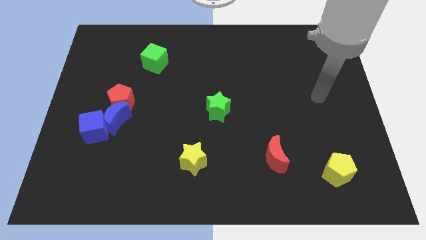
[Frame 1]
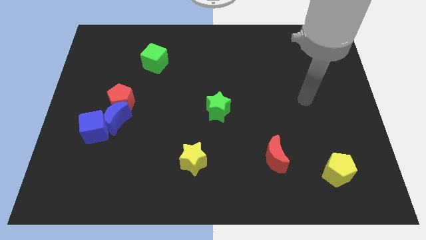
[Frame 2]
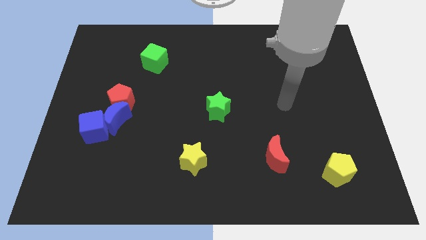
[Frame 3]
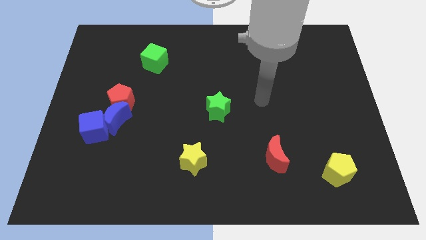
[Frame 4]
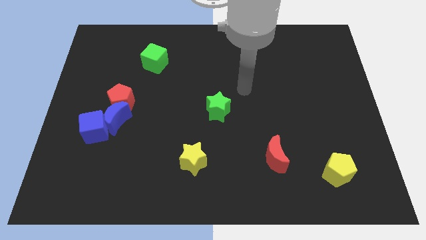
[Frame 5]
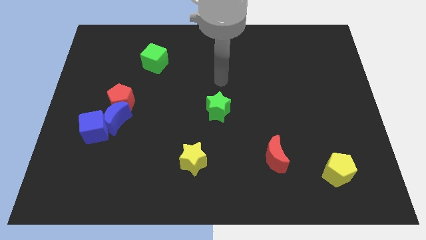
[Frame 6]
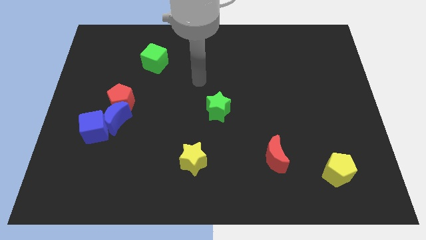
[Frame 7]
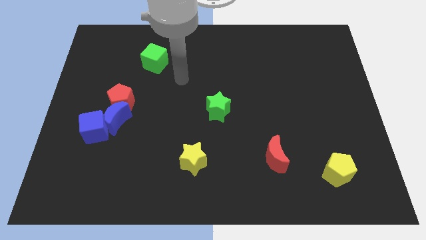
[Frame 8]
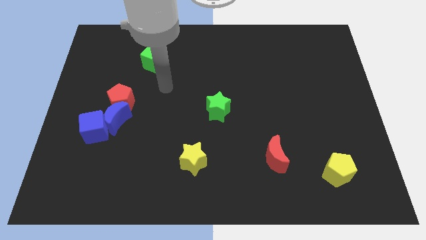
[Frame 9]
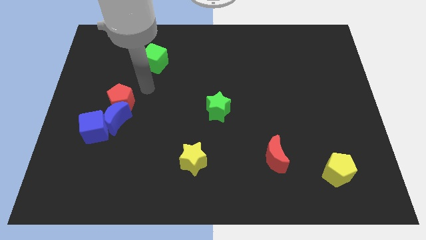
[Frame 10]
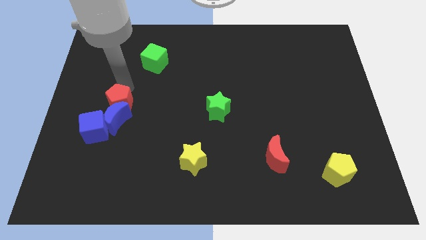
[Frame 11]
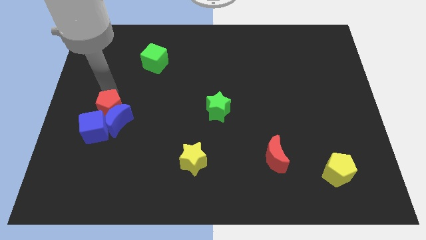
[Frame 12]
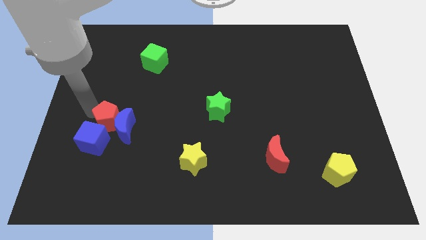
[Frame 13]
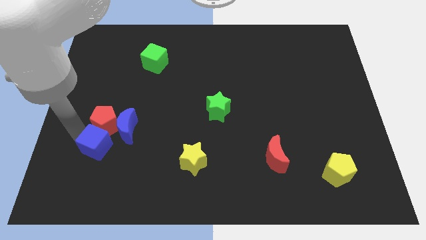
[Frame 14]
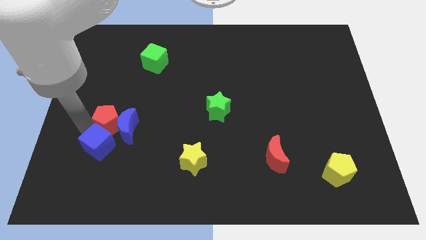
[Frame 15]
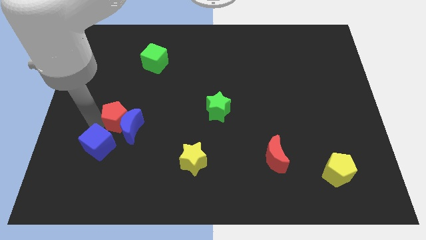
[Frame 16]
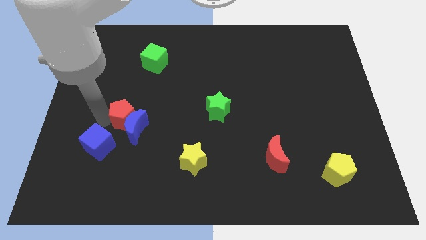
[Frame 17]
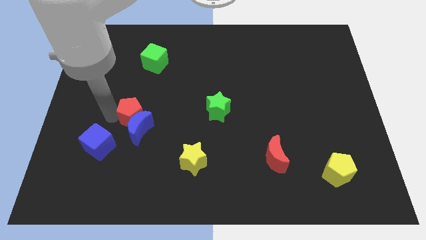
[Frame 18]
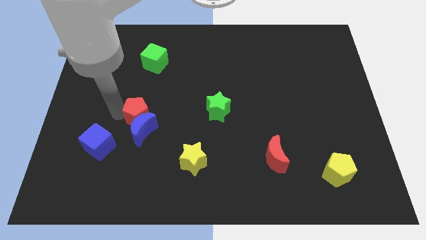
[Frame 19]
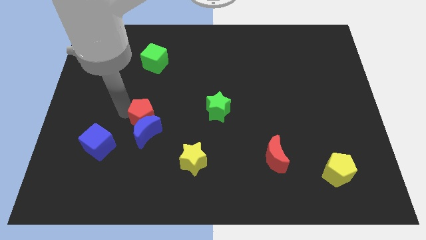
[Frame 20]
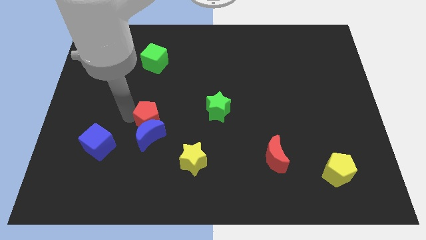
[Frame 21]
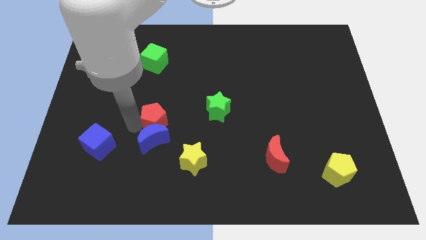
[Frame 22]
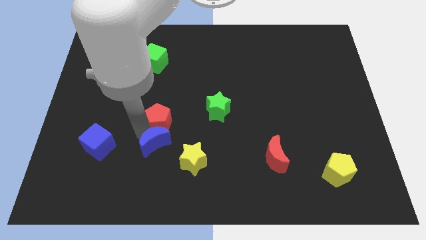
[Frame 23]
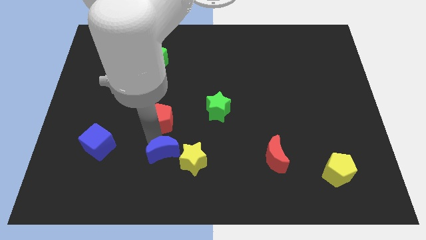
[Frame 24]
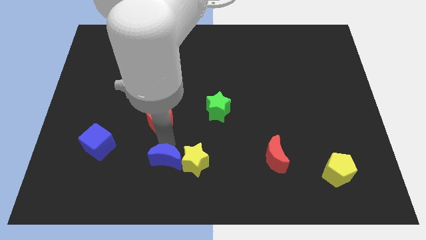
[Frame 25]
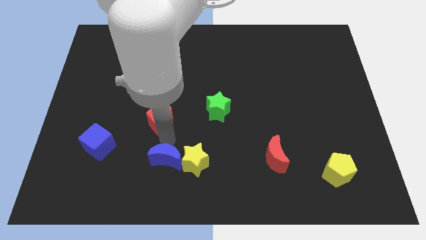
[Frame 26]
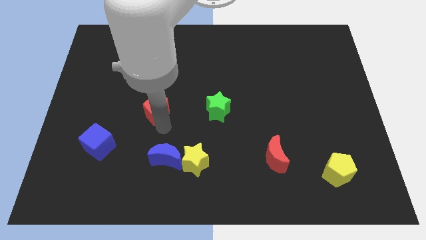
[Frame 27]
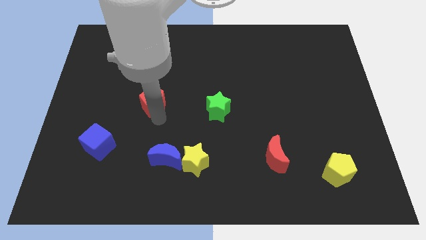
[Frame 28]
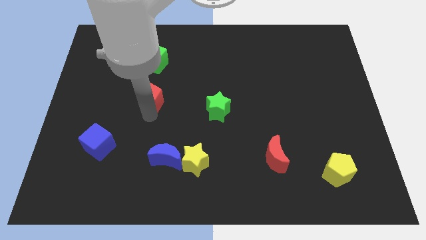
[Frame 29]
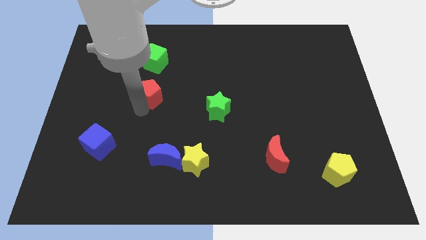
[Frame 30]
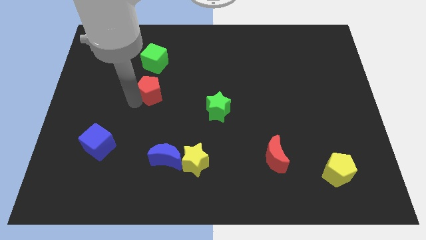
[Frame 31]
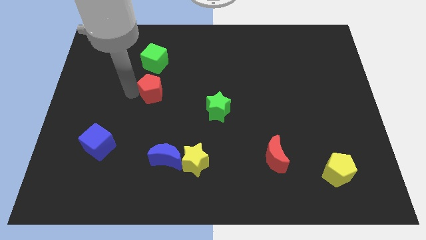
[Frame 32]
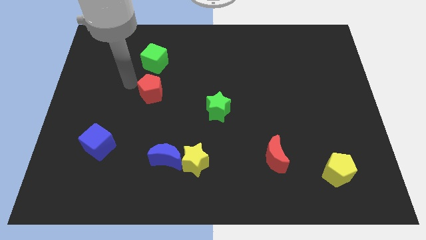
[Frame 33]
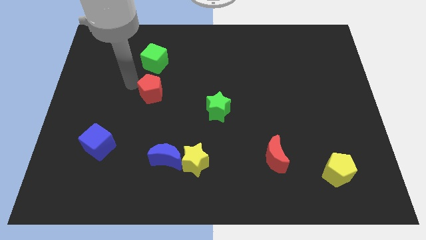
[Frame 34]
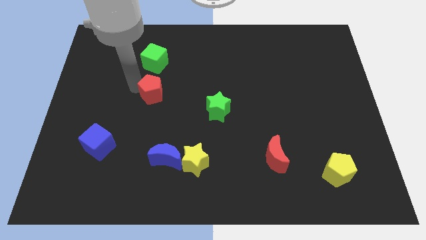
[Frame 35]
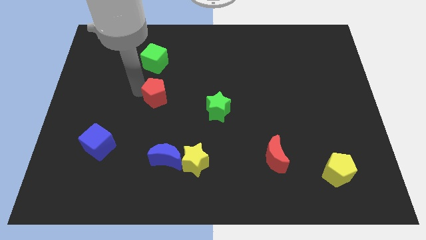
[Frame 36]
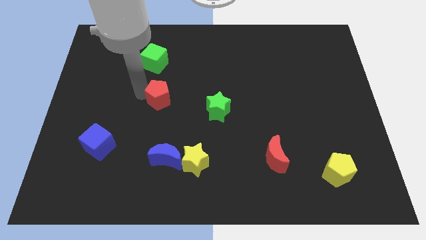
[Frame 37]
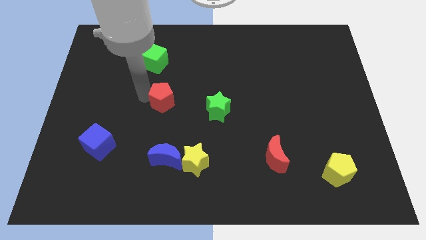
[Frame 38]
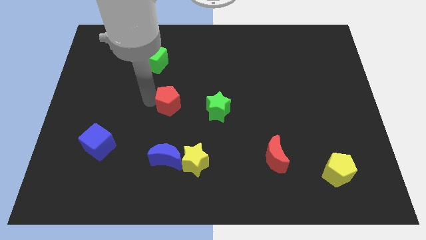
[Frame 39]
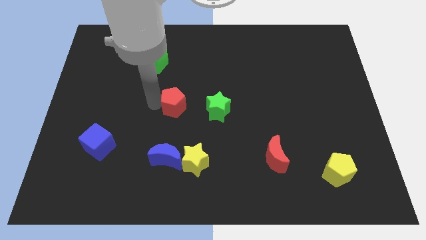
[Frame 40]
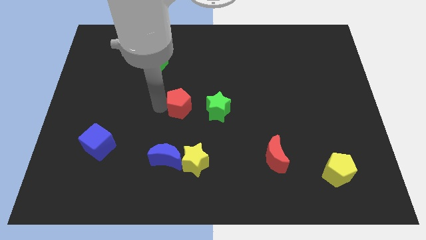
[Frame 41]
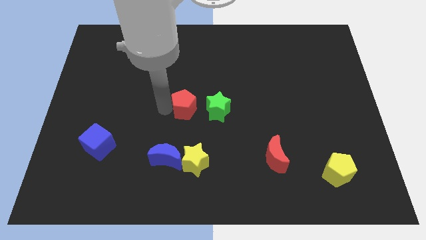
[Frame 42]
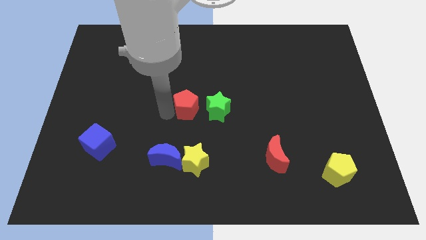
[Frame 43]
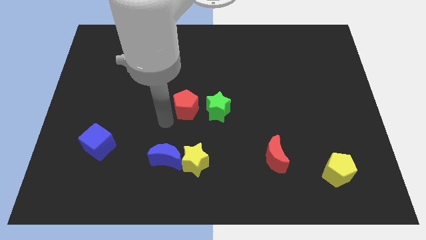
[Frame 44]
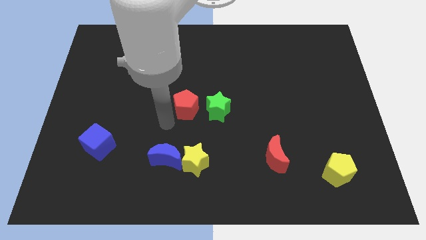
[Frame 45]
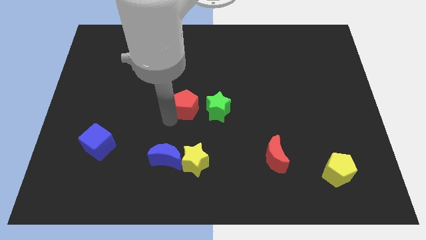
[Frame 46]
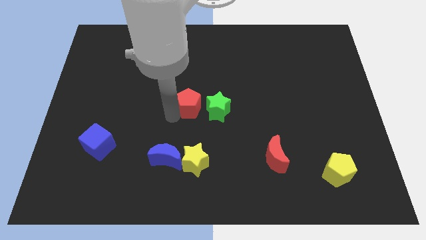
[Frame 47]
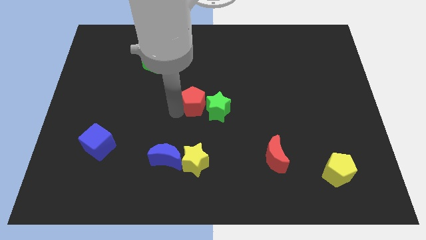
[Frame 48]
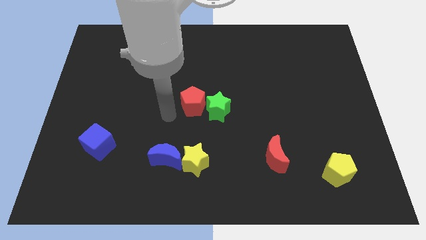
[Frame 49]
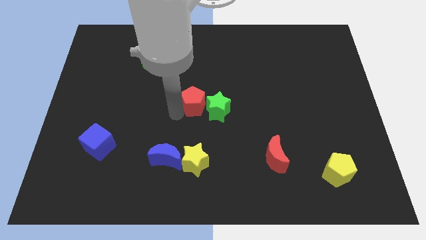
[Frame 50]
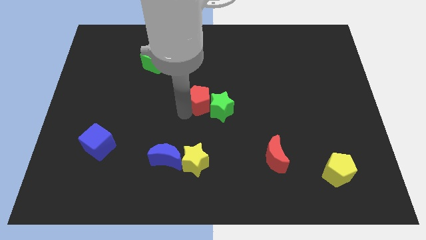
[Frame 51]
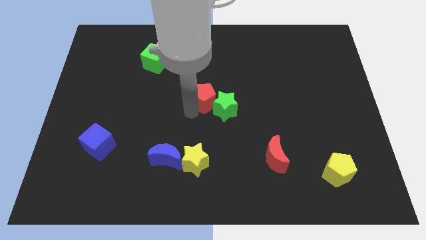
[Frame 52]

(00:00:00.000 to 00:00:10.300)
push the red pentagon right

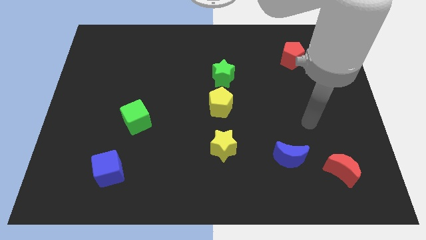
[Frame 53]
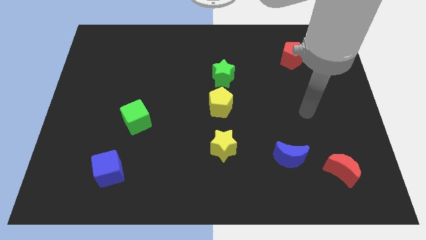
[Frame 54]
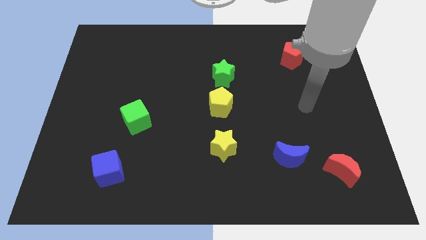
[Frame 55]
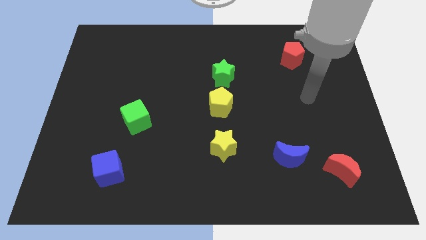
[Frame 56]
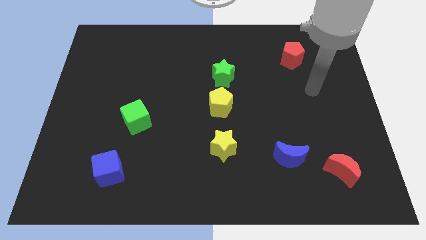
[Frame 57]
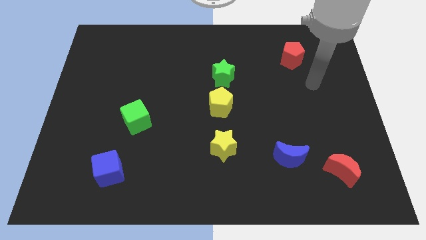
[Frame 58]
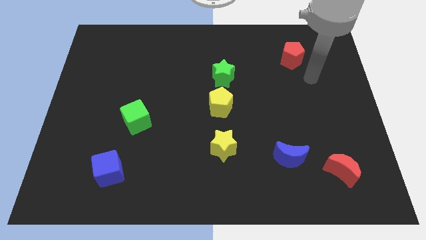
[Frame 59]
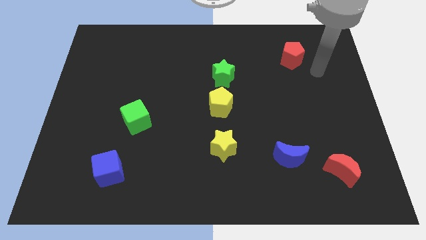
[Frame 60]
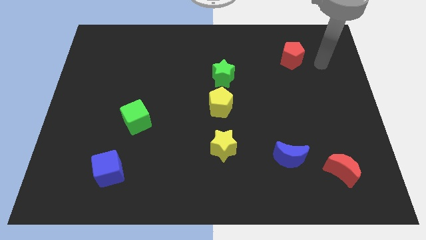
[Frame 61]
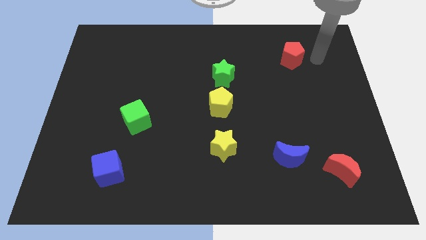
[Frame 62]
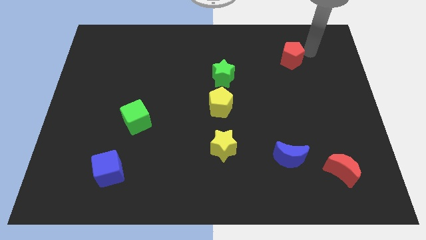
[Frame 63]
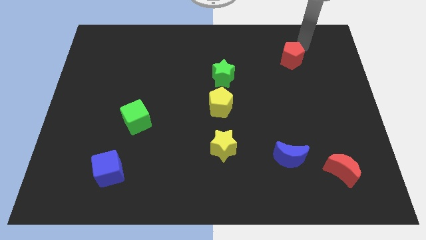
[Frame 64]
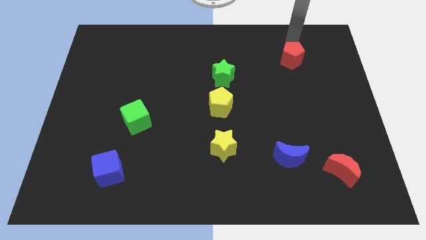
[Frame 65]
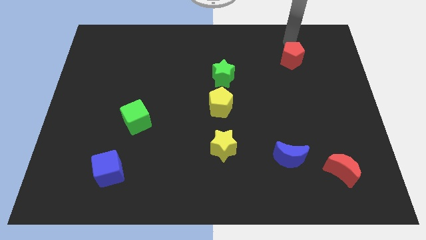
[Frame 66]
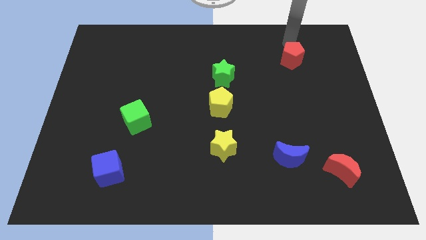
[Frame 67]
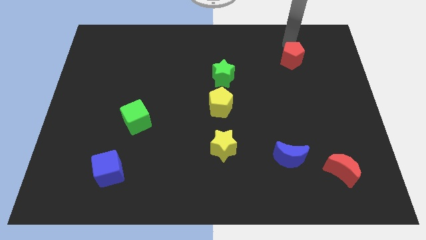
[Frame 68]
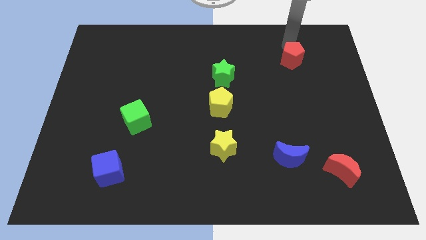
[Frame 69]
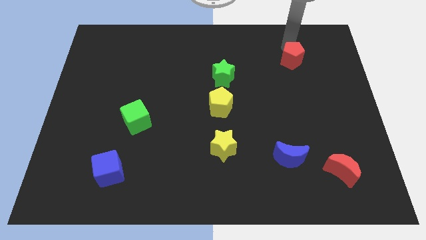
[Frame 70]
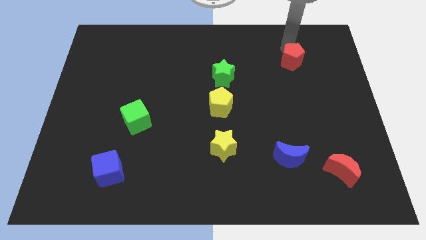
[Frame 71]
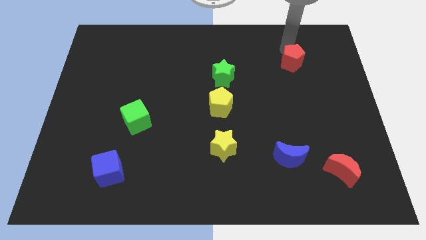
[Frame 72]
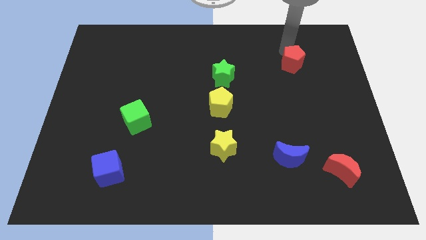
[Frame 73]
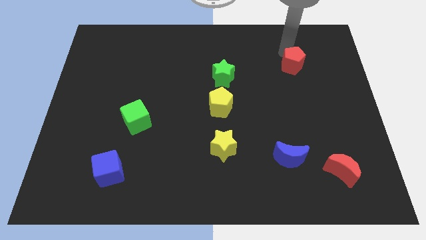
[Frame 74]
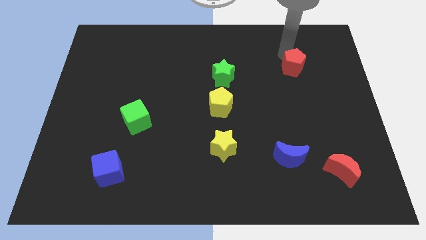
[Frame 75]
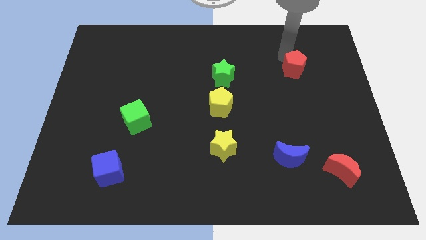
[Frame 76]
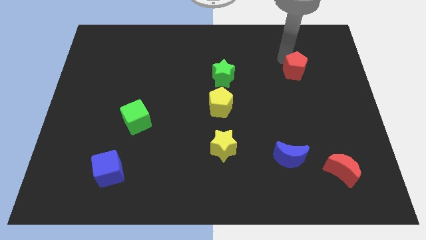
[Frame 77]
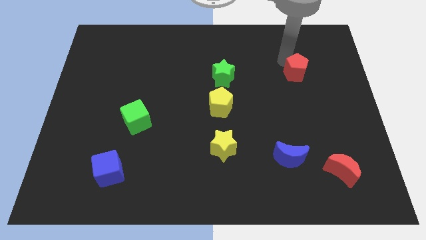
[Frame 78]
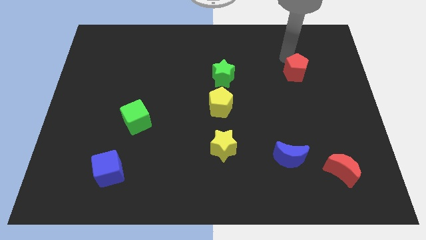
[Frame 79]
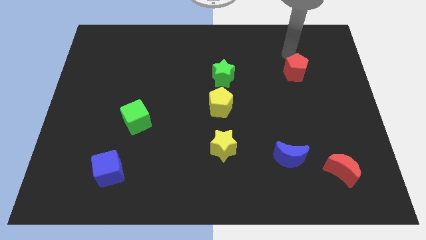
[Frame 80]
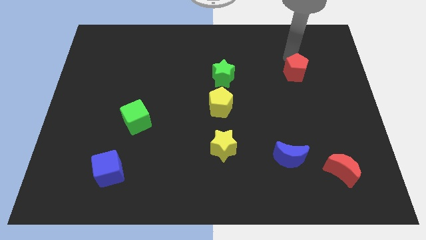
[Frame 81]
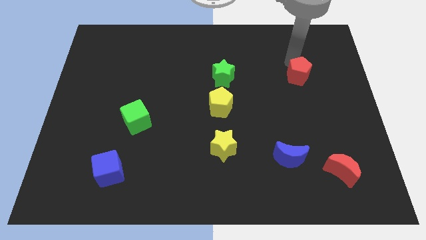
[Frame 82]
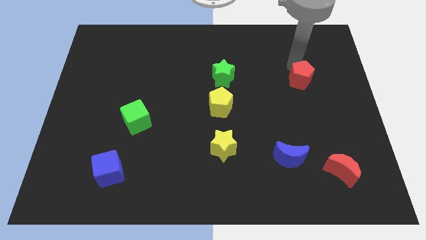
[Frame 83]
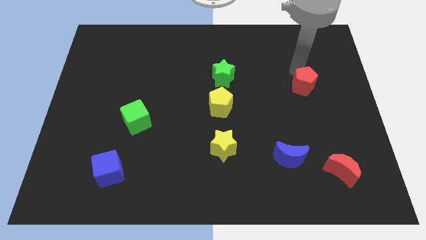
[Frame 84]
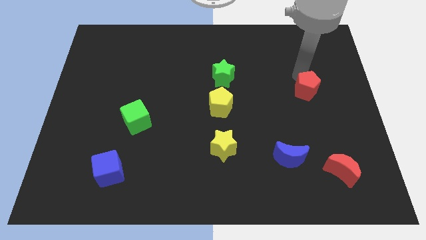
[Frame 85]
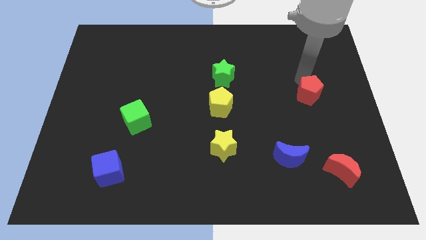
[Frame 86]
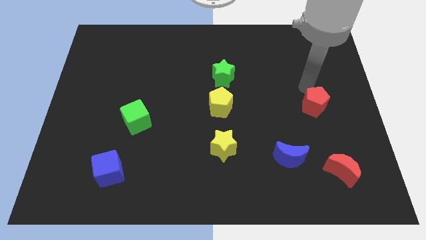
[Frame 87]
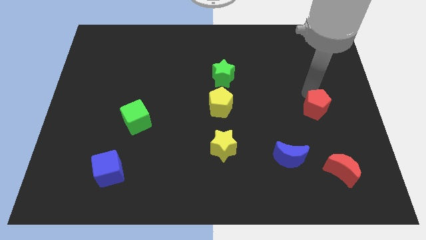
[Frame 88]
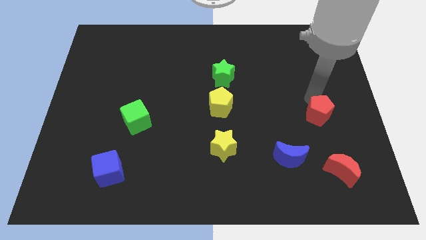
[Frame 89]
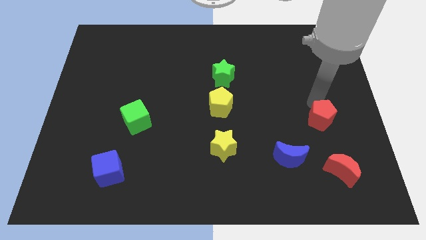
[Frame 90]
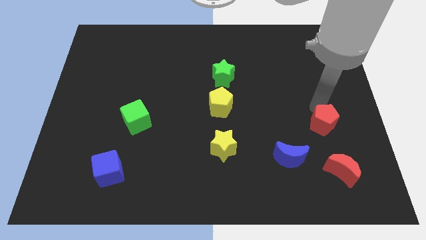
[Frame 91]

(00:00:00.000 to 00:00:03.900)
slide the red pentagon down
